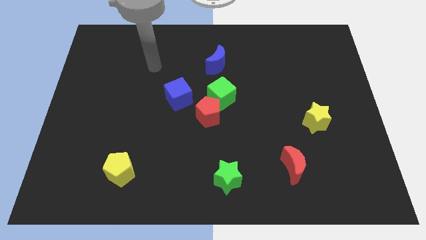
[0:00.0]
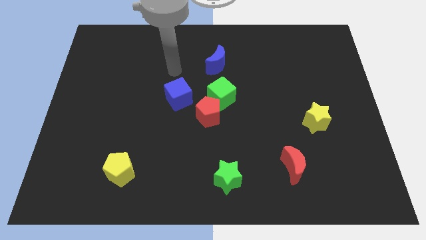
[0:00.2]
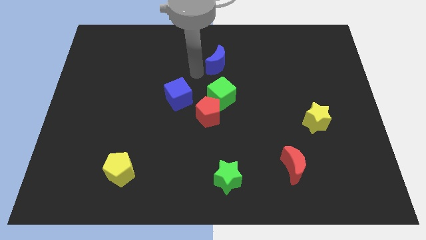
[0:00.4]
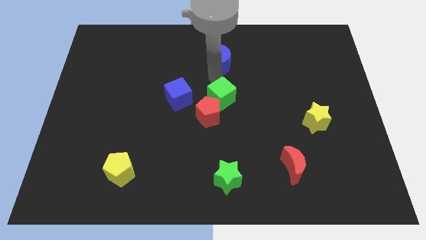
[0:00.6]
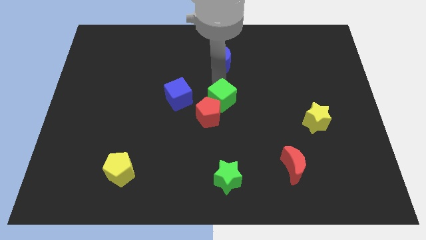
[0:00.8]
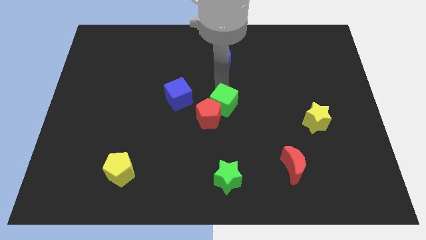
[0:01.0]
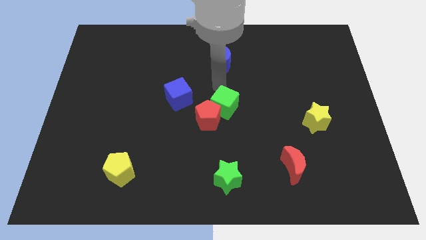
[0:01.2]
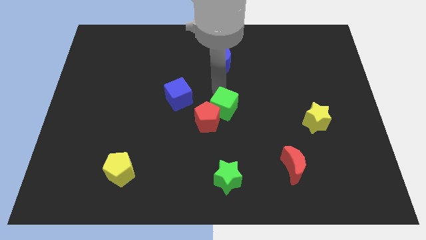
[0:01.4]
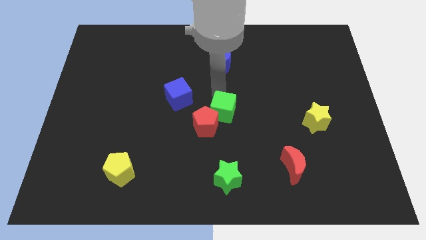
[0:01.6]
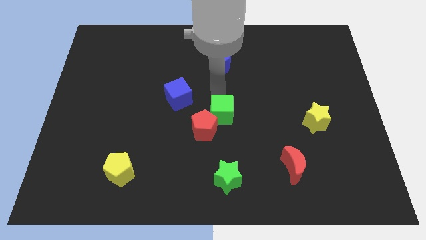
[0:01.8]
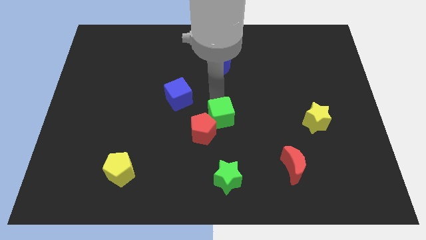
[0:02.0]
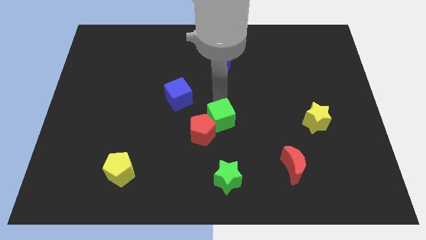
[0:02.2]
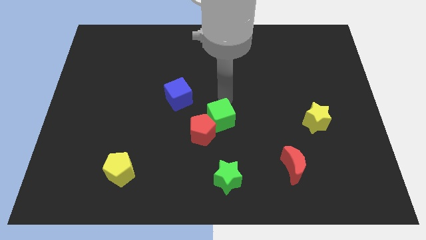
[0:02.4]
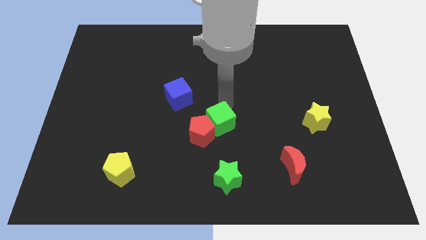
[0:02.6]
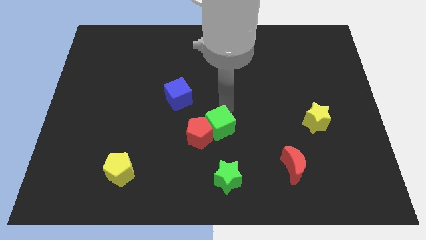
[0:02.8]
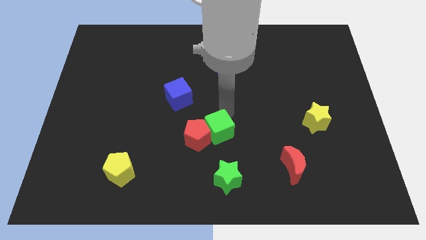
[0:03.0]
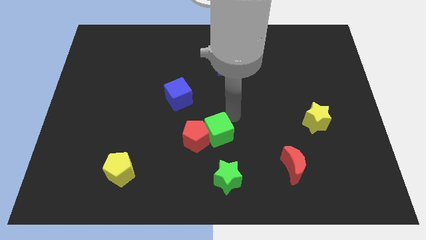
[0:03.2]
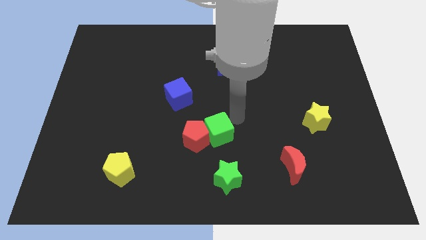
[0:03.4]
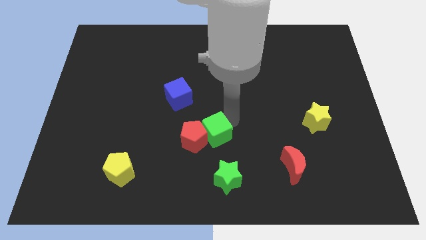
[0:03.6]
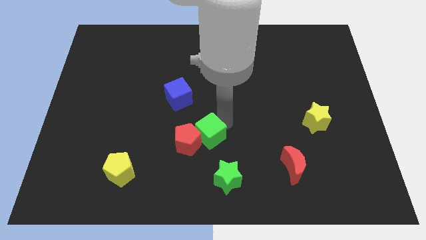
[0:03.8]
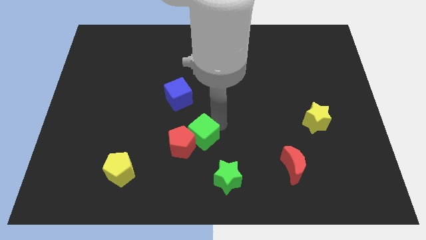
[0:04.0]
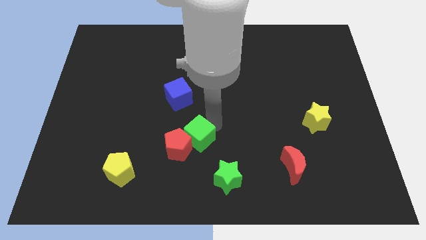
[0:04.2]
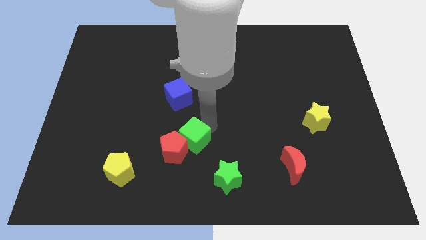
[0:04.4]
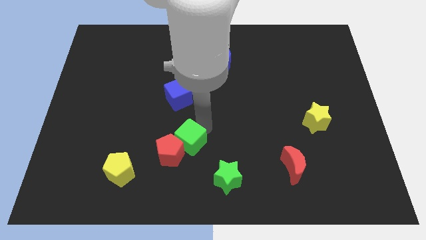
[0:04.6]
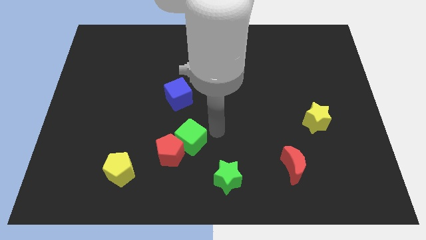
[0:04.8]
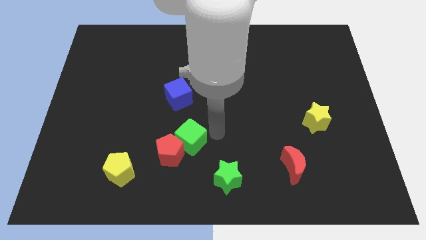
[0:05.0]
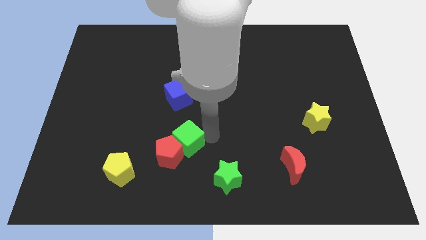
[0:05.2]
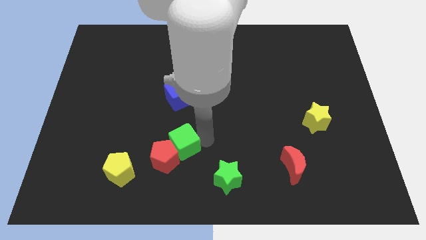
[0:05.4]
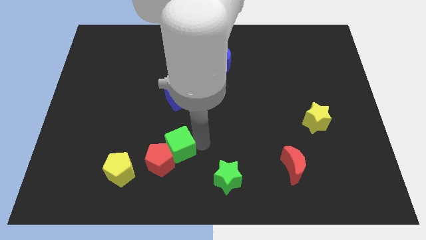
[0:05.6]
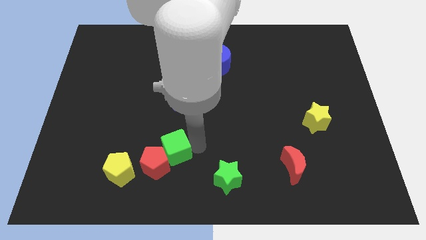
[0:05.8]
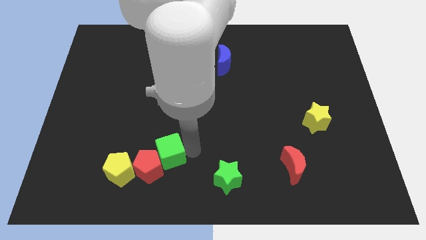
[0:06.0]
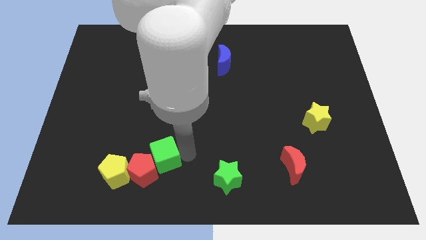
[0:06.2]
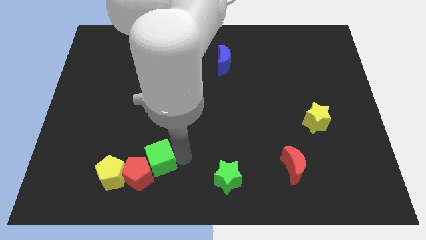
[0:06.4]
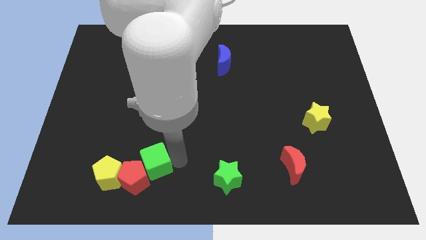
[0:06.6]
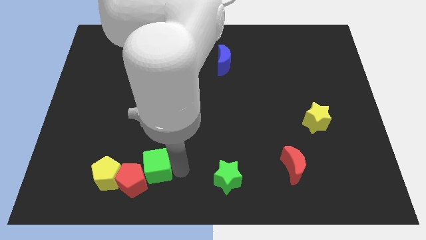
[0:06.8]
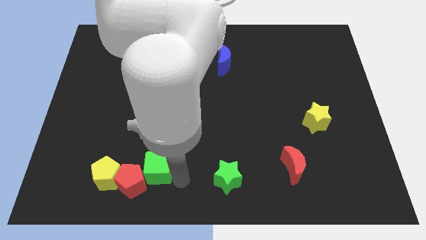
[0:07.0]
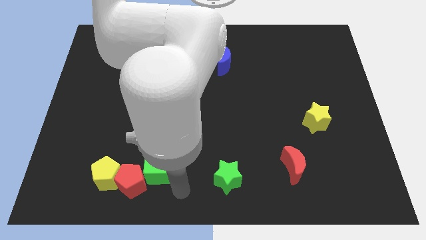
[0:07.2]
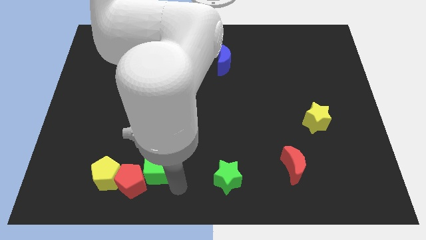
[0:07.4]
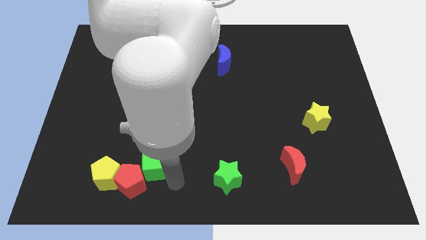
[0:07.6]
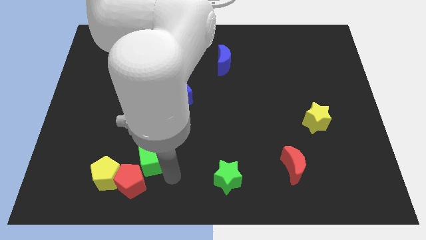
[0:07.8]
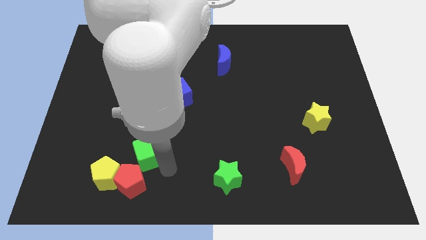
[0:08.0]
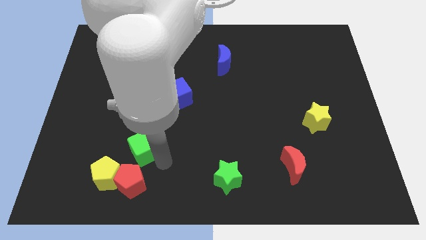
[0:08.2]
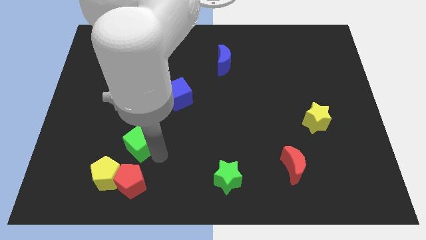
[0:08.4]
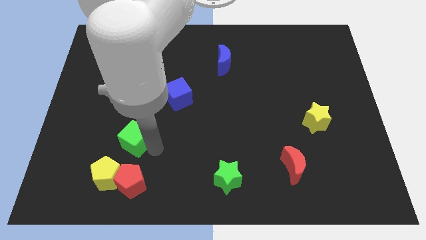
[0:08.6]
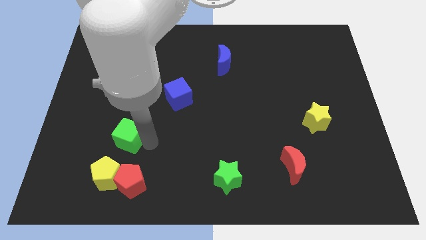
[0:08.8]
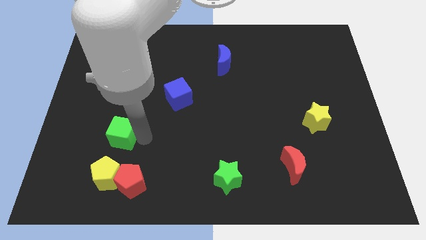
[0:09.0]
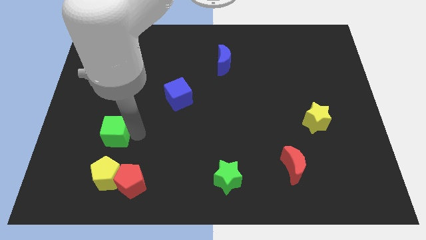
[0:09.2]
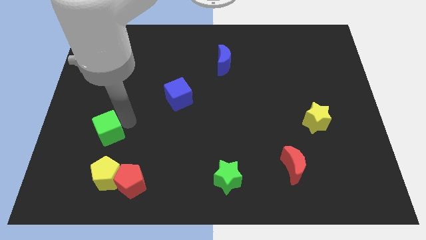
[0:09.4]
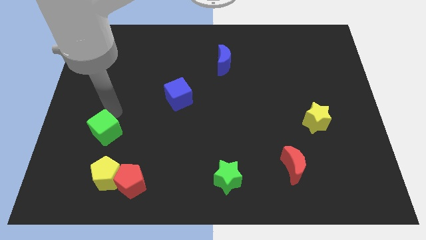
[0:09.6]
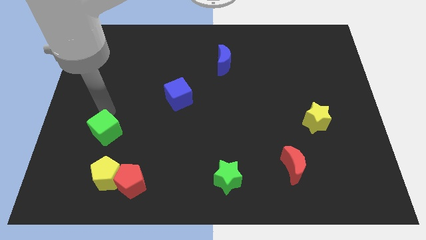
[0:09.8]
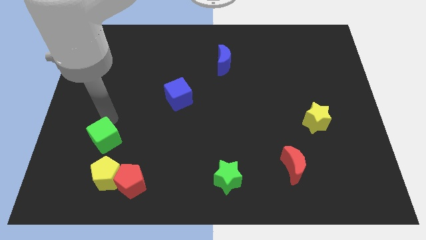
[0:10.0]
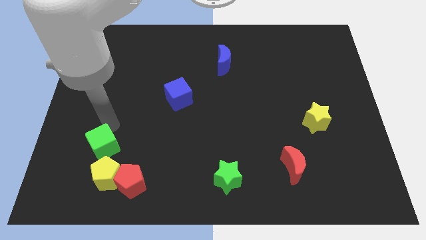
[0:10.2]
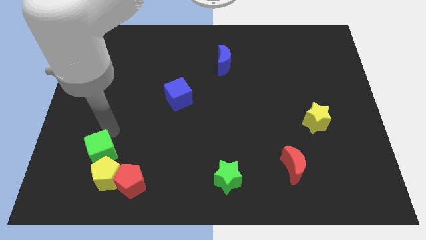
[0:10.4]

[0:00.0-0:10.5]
put the green cube to the yellow pentagon

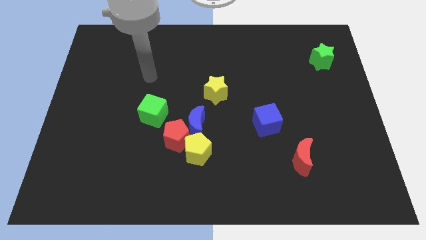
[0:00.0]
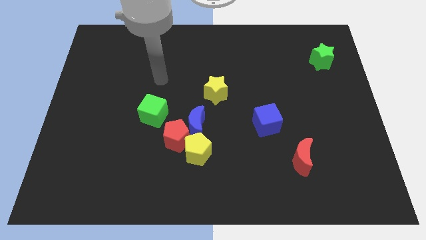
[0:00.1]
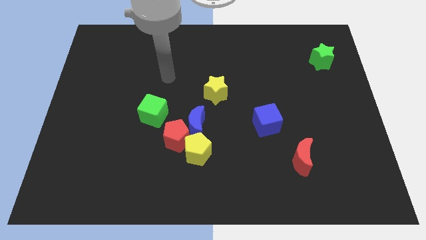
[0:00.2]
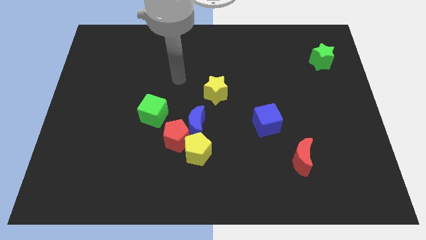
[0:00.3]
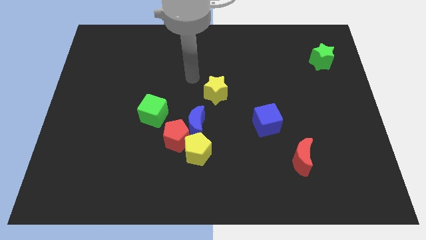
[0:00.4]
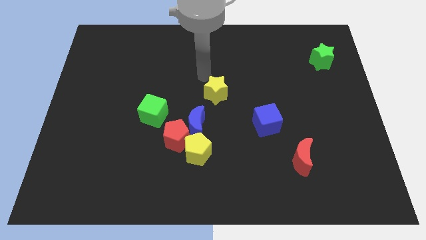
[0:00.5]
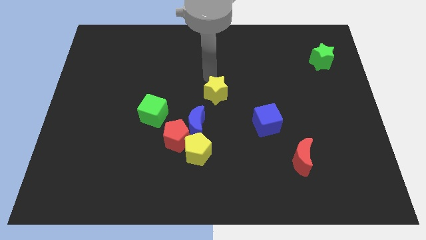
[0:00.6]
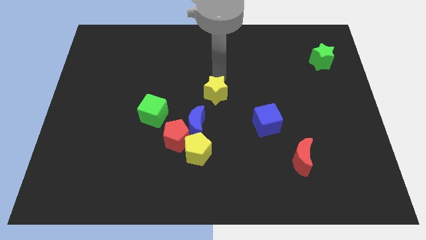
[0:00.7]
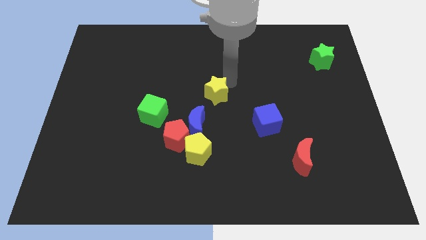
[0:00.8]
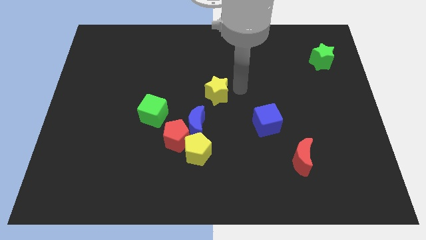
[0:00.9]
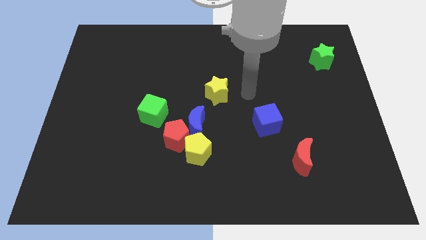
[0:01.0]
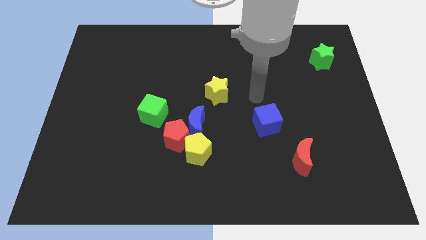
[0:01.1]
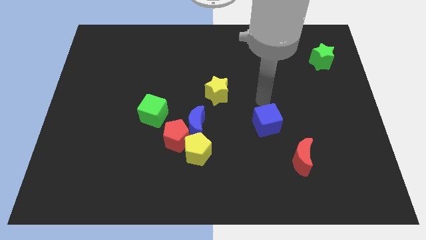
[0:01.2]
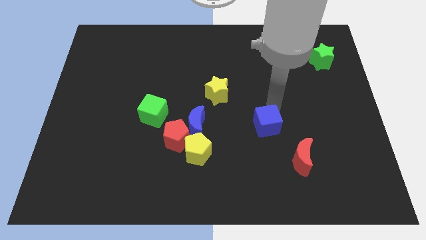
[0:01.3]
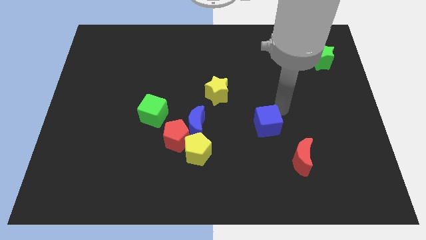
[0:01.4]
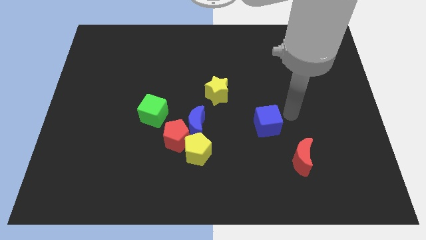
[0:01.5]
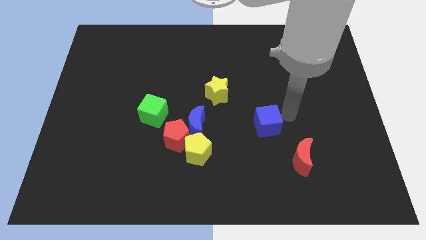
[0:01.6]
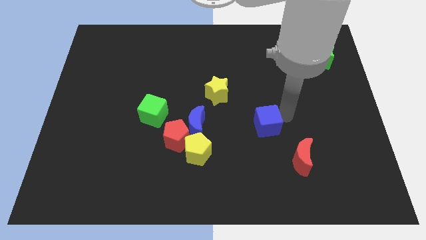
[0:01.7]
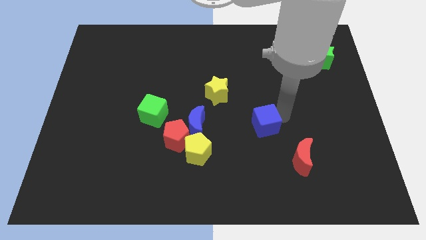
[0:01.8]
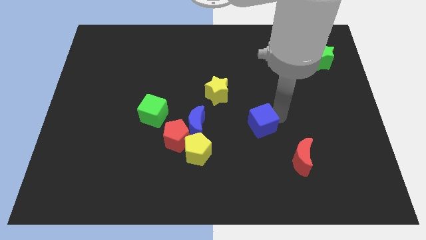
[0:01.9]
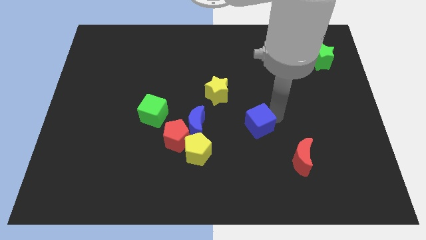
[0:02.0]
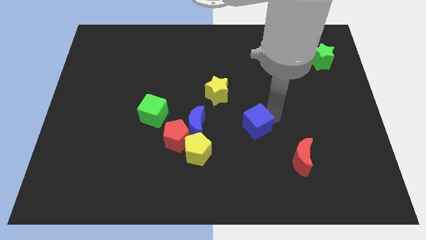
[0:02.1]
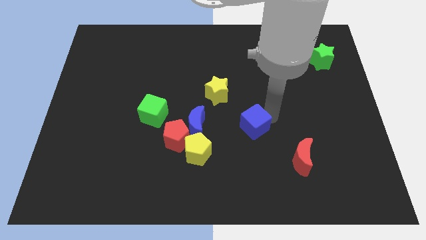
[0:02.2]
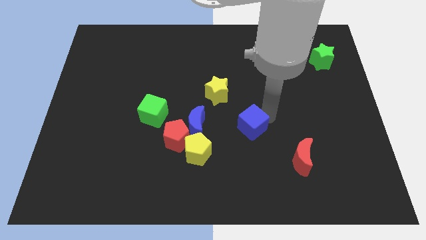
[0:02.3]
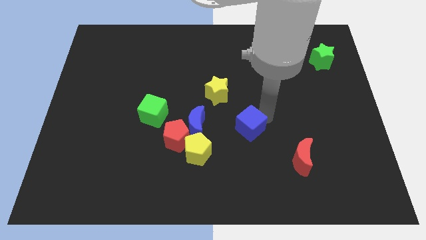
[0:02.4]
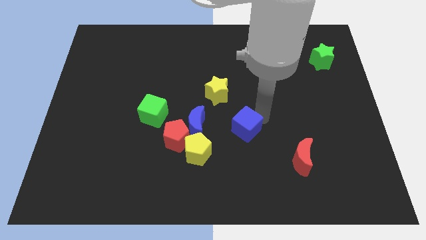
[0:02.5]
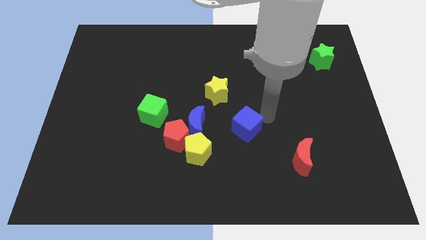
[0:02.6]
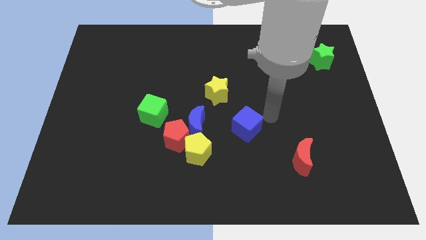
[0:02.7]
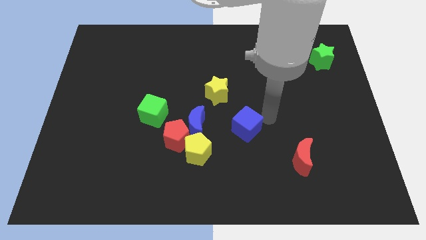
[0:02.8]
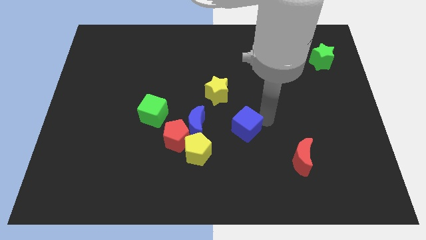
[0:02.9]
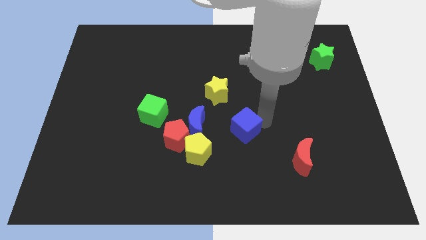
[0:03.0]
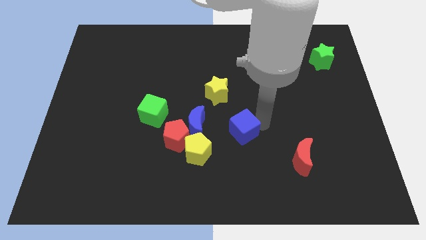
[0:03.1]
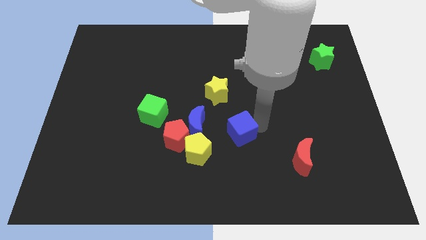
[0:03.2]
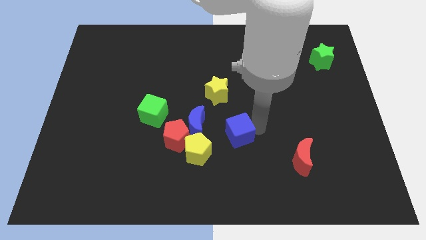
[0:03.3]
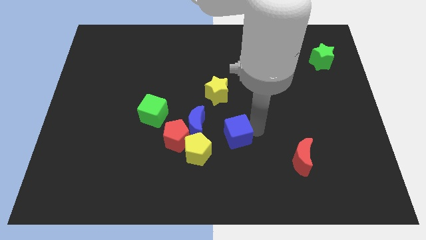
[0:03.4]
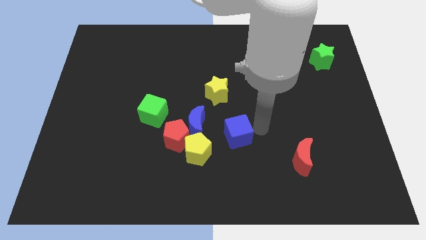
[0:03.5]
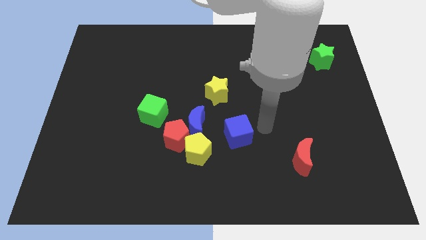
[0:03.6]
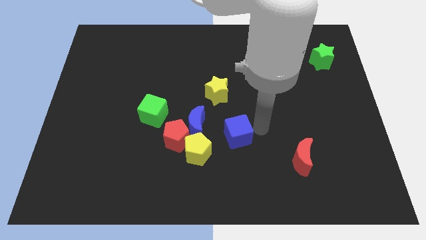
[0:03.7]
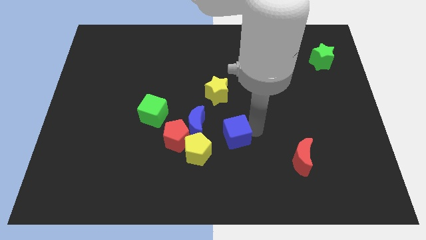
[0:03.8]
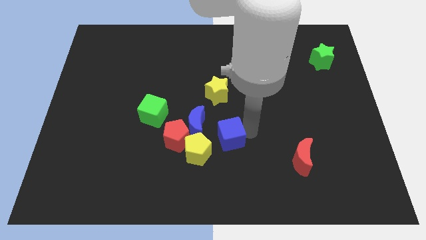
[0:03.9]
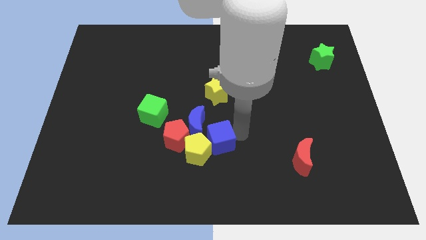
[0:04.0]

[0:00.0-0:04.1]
put the blue cube close to the yellow pentagon
